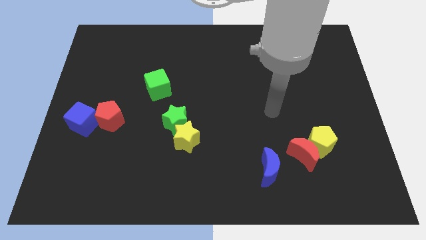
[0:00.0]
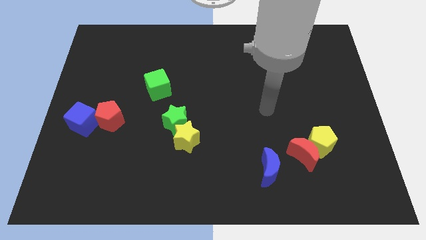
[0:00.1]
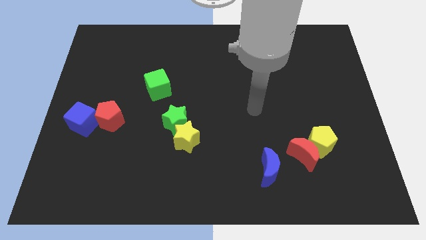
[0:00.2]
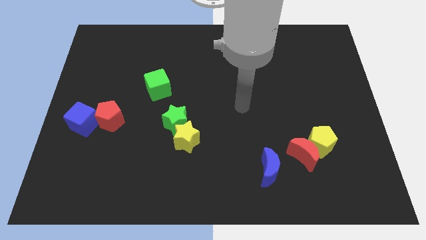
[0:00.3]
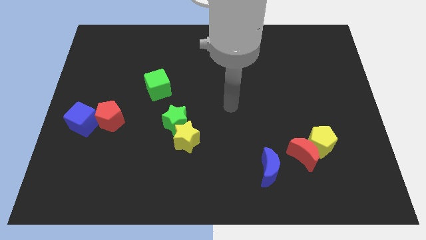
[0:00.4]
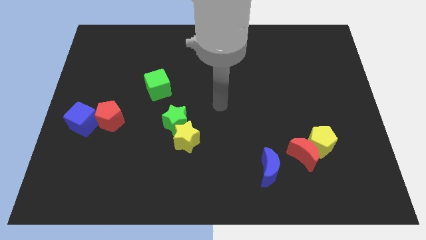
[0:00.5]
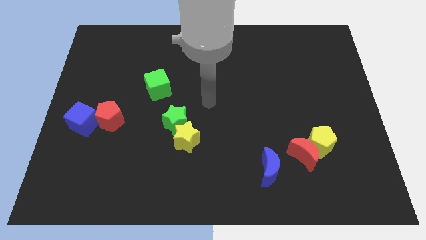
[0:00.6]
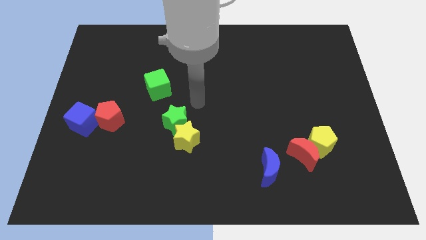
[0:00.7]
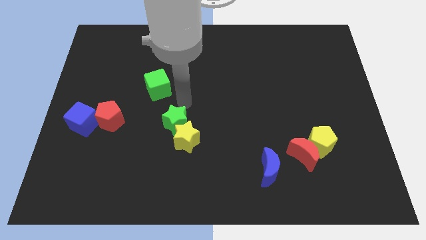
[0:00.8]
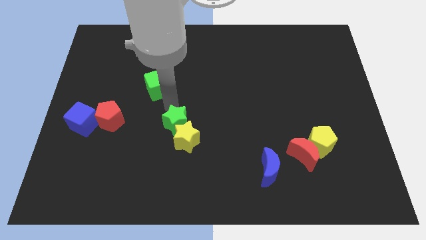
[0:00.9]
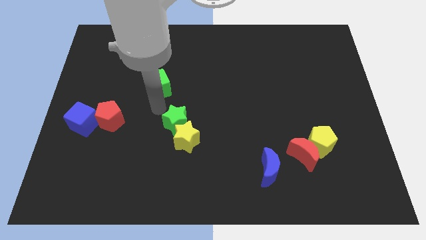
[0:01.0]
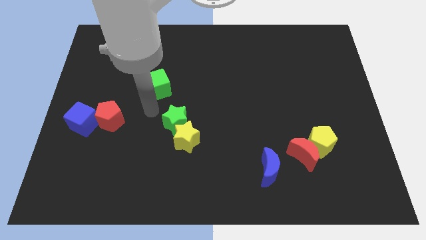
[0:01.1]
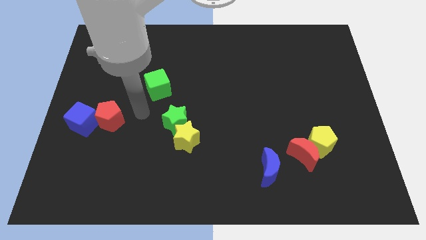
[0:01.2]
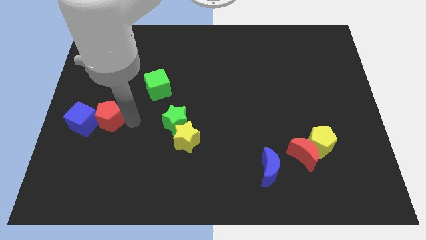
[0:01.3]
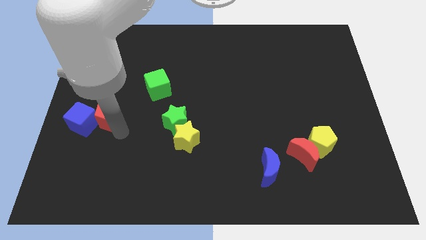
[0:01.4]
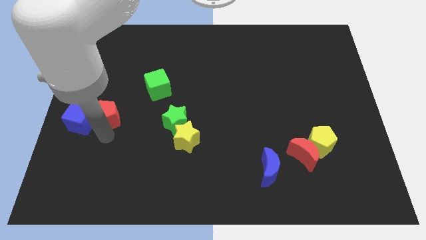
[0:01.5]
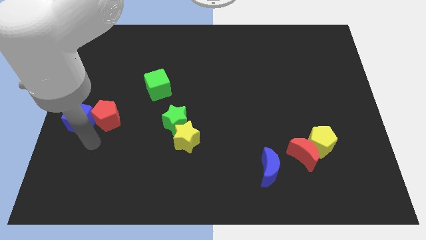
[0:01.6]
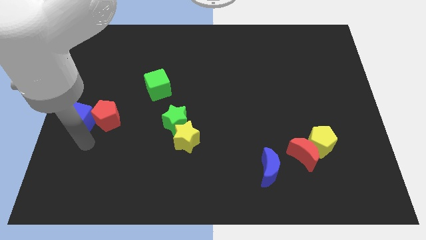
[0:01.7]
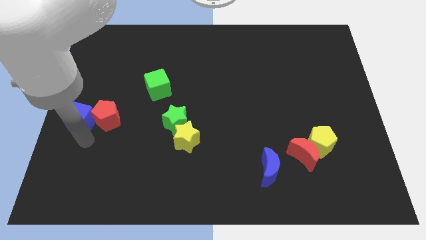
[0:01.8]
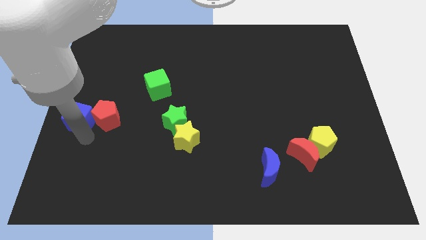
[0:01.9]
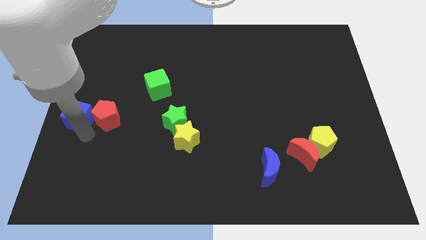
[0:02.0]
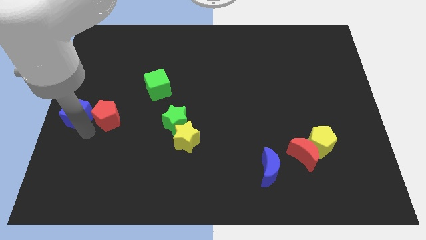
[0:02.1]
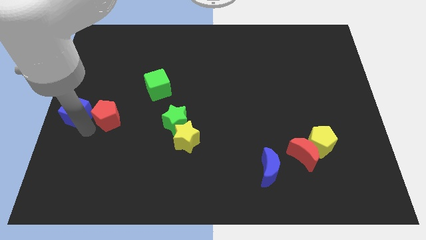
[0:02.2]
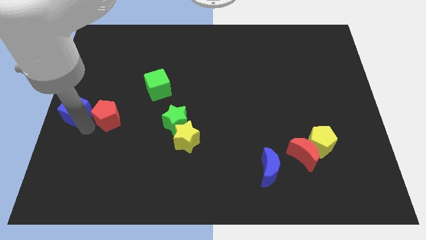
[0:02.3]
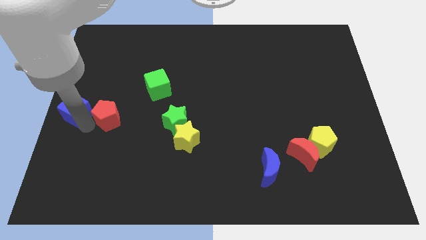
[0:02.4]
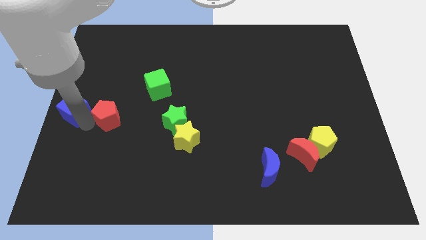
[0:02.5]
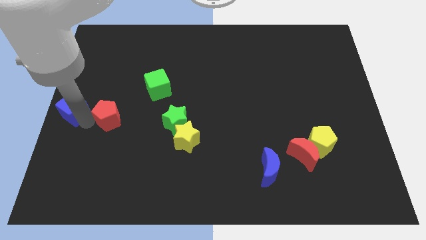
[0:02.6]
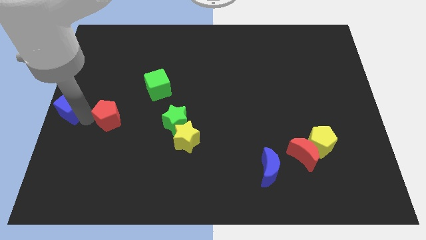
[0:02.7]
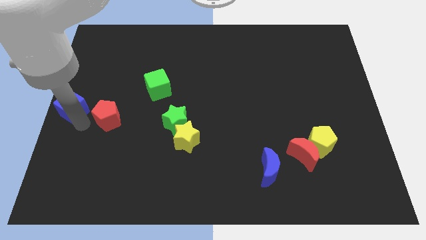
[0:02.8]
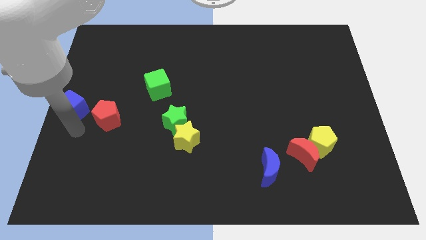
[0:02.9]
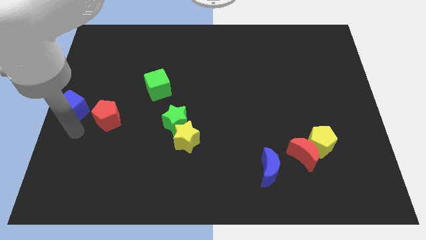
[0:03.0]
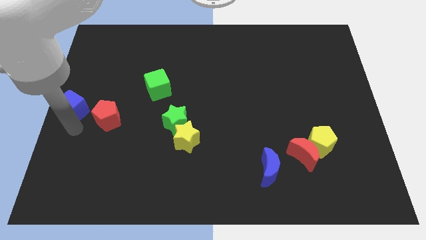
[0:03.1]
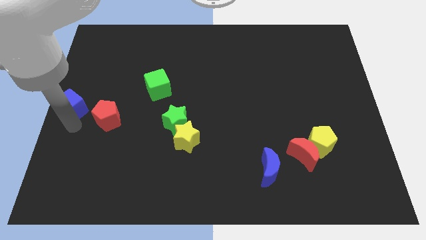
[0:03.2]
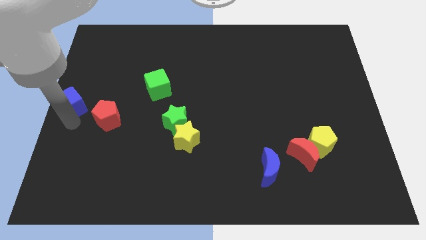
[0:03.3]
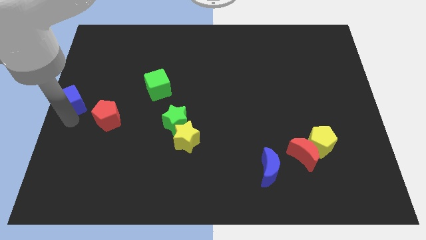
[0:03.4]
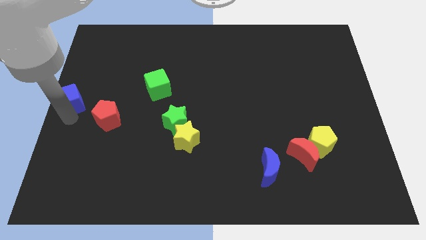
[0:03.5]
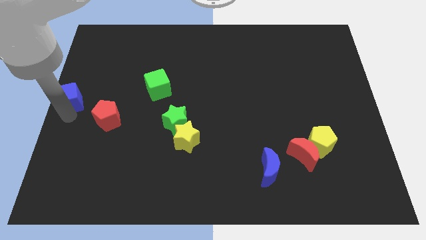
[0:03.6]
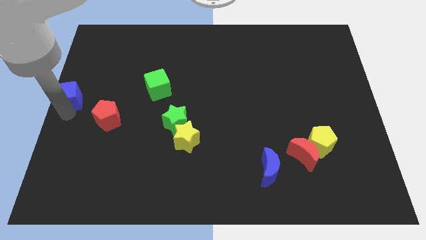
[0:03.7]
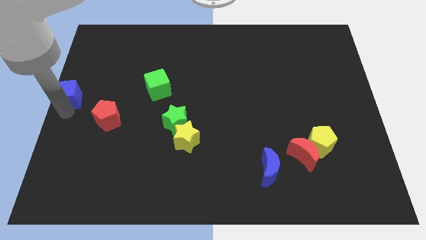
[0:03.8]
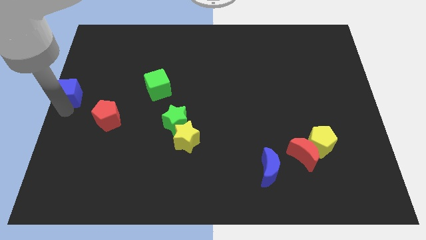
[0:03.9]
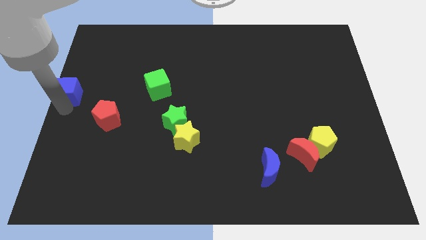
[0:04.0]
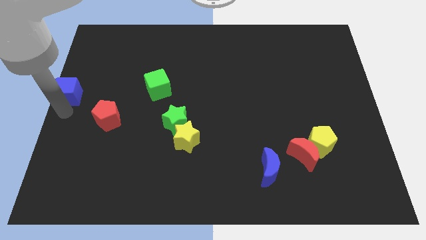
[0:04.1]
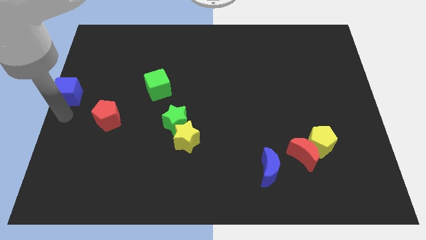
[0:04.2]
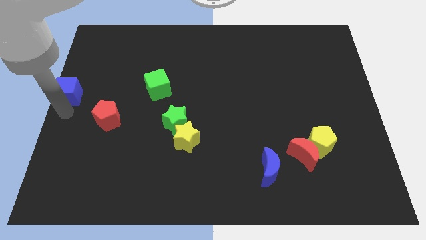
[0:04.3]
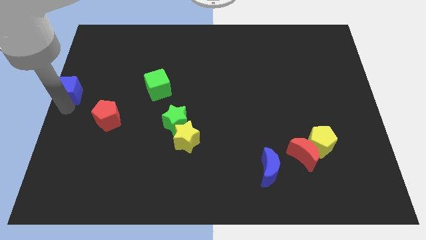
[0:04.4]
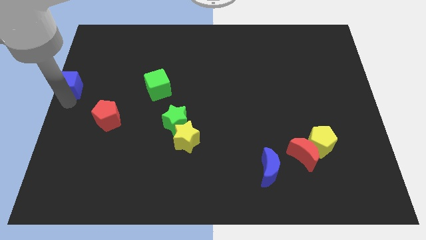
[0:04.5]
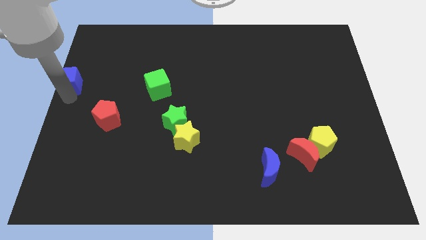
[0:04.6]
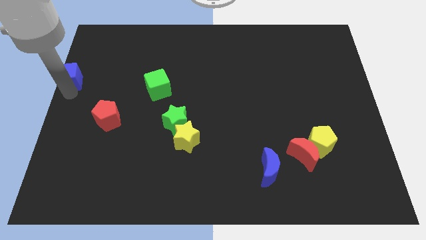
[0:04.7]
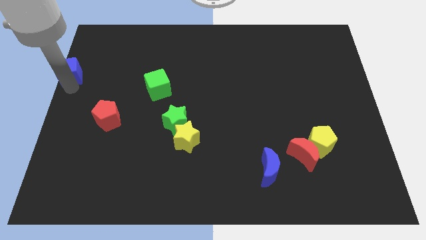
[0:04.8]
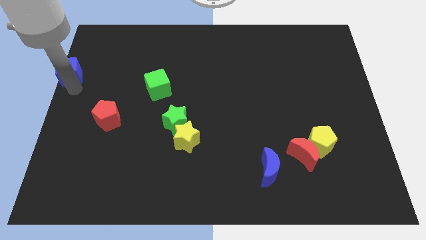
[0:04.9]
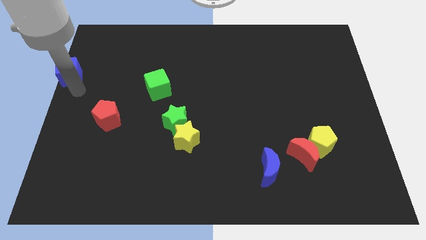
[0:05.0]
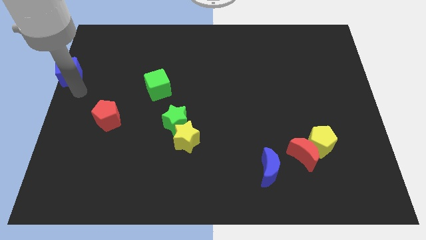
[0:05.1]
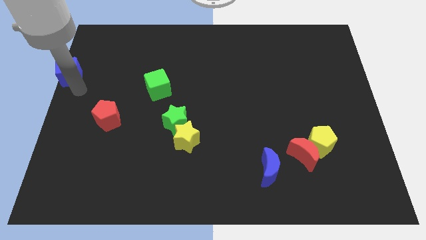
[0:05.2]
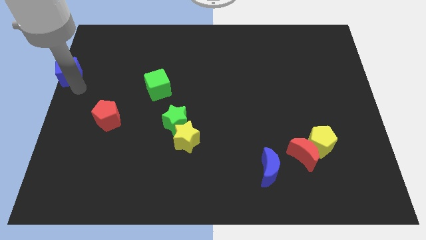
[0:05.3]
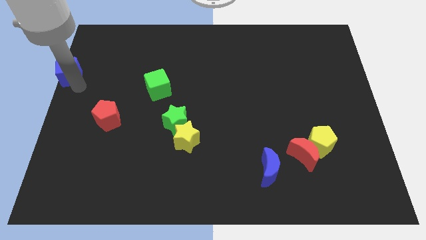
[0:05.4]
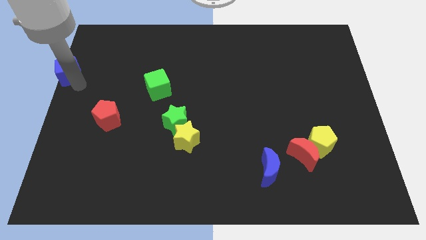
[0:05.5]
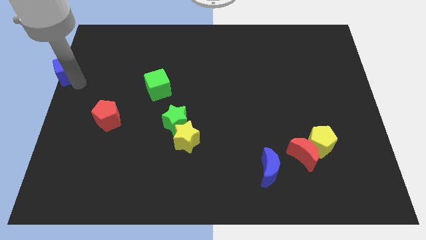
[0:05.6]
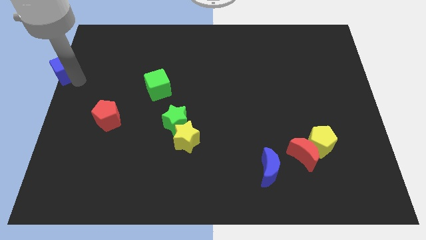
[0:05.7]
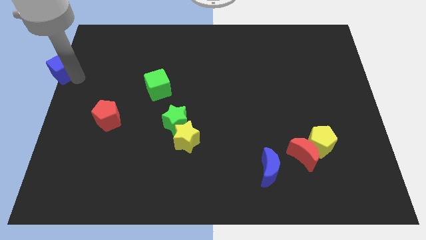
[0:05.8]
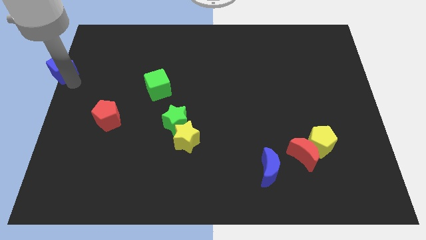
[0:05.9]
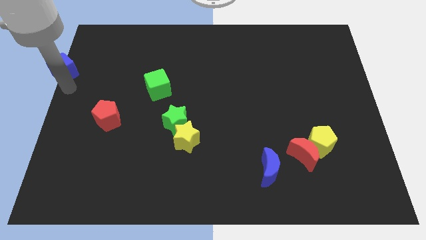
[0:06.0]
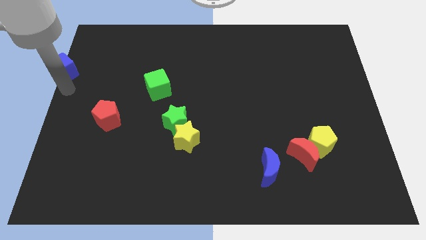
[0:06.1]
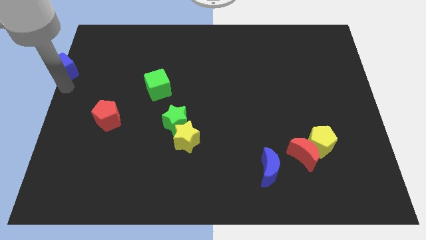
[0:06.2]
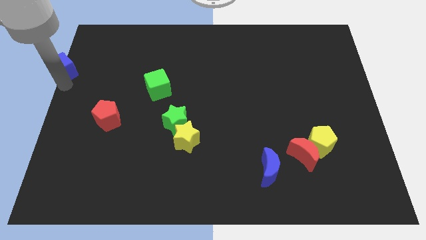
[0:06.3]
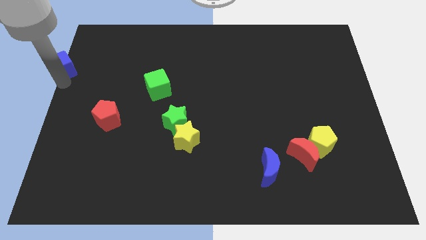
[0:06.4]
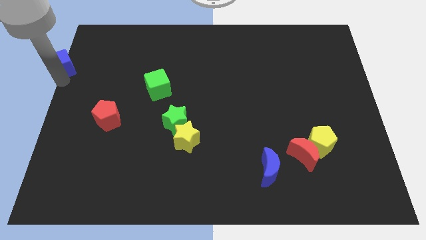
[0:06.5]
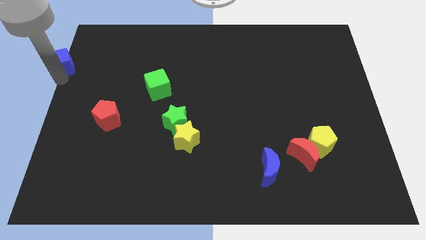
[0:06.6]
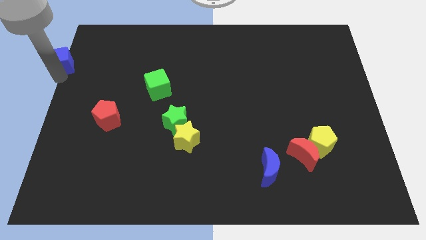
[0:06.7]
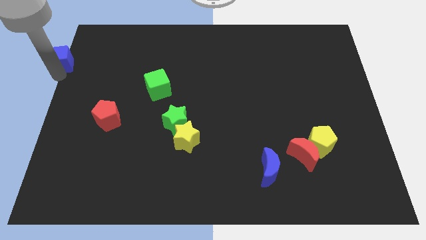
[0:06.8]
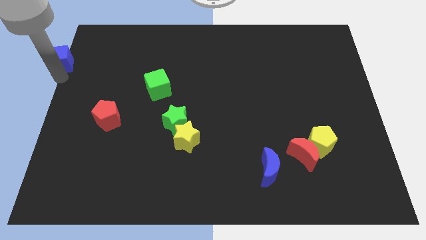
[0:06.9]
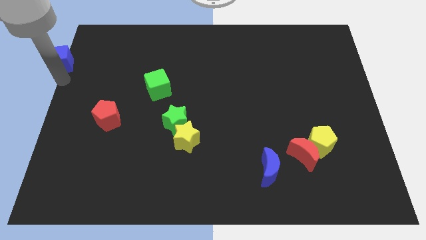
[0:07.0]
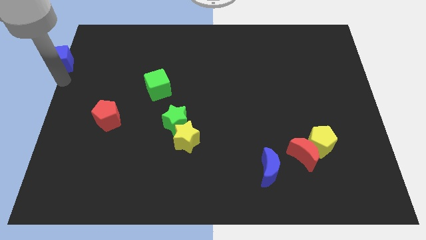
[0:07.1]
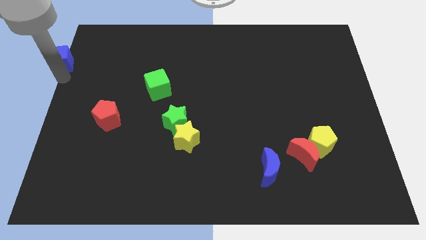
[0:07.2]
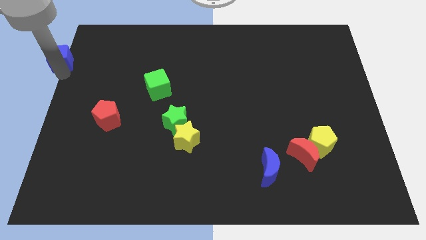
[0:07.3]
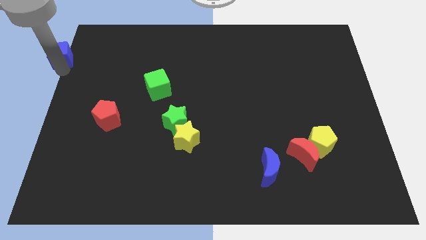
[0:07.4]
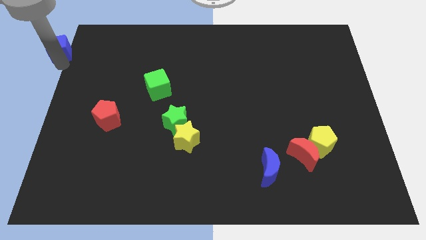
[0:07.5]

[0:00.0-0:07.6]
put the blue cube to the top left
